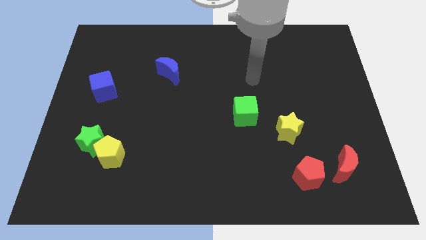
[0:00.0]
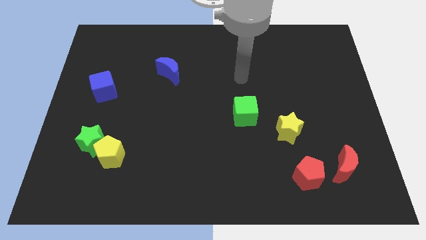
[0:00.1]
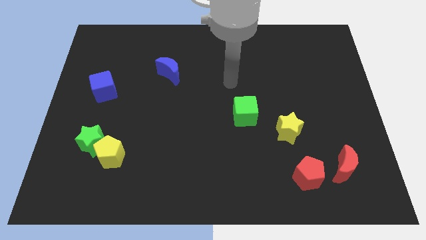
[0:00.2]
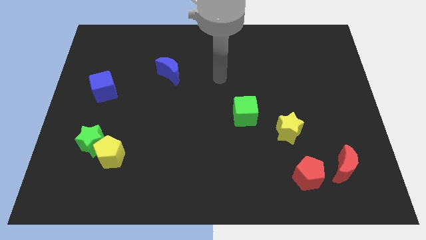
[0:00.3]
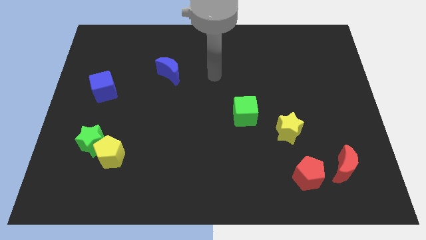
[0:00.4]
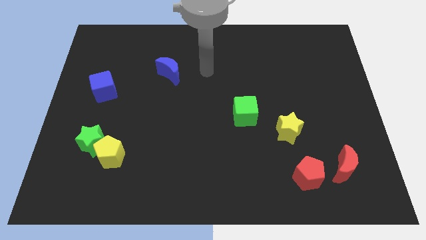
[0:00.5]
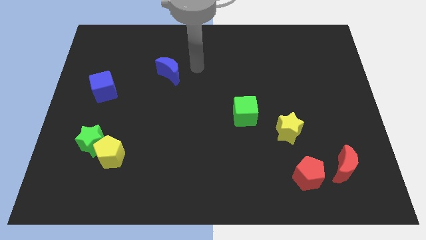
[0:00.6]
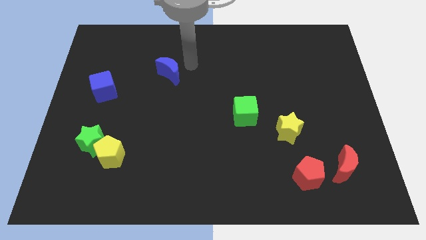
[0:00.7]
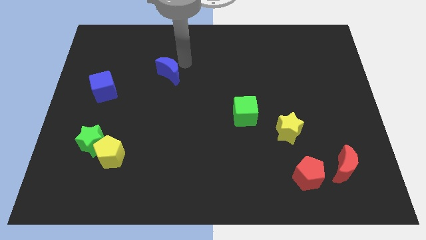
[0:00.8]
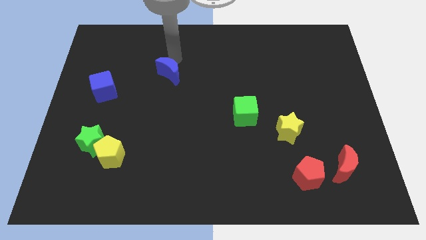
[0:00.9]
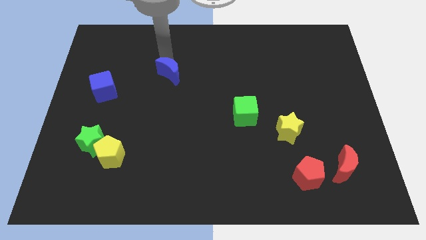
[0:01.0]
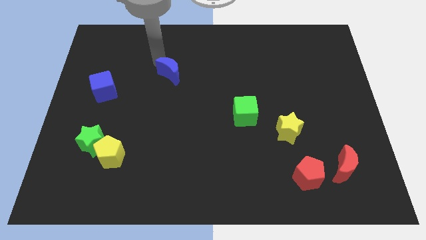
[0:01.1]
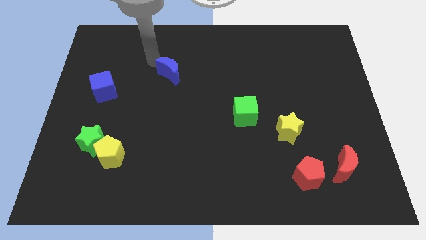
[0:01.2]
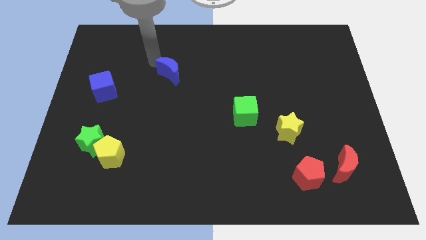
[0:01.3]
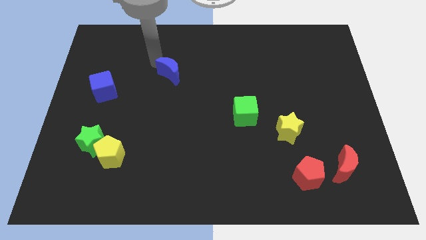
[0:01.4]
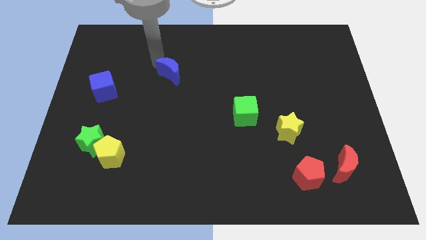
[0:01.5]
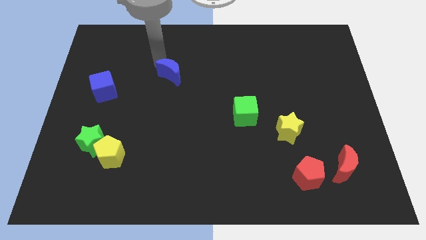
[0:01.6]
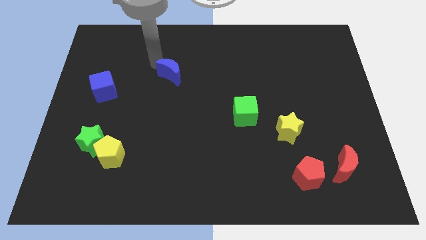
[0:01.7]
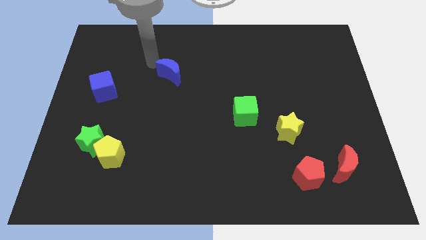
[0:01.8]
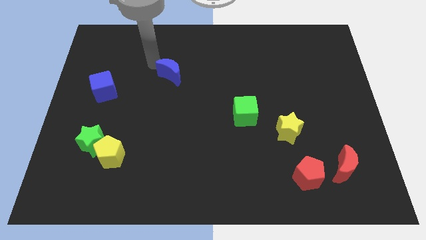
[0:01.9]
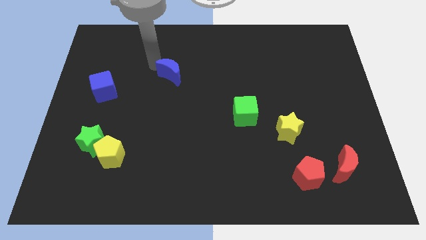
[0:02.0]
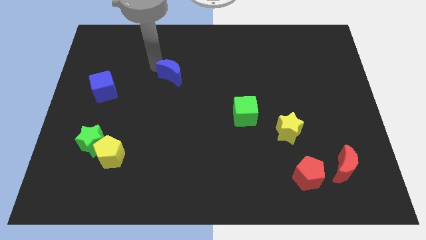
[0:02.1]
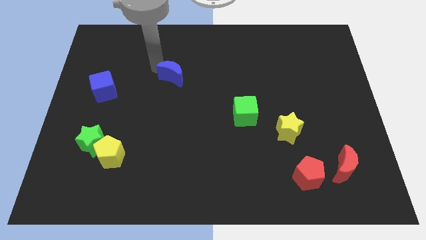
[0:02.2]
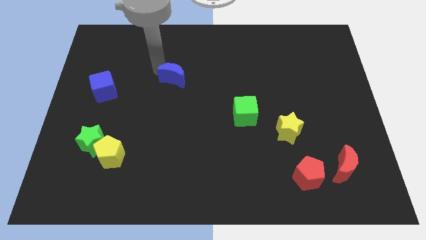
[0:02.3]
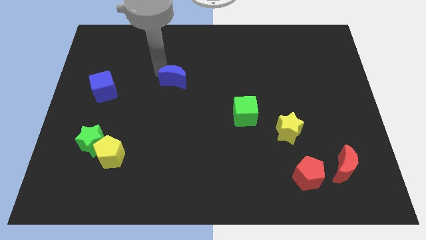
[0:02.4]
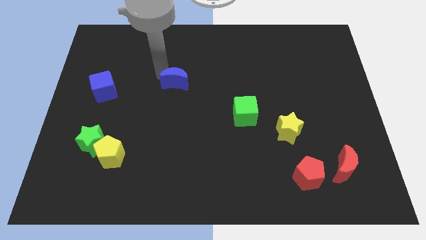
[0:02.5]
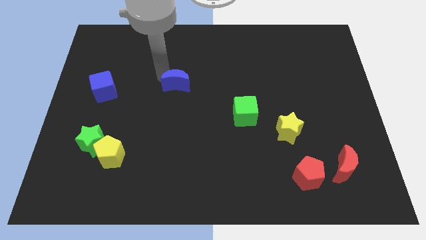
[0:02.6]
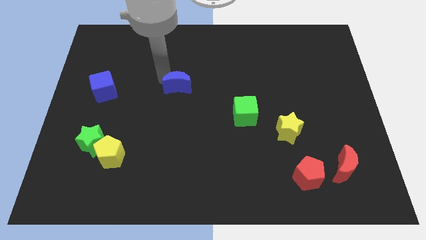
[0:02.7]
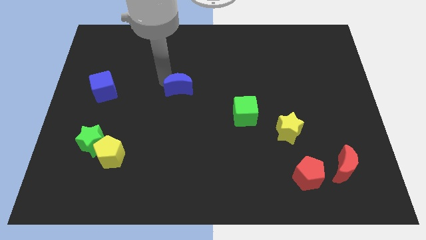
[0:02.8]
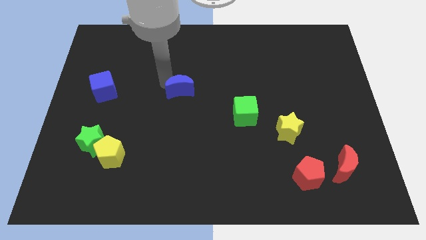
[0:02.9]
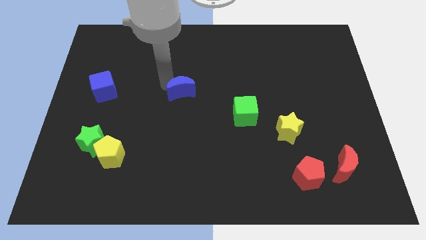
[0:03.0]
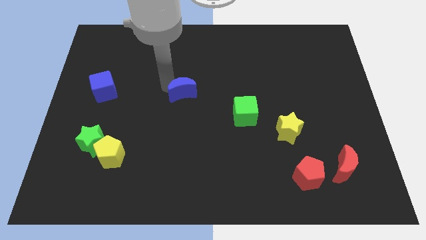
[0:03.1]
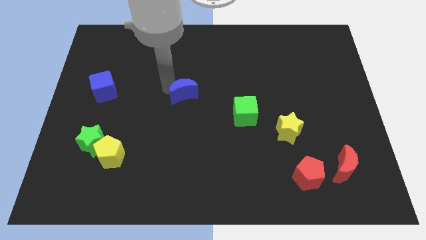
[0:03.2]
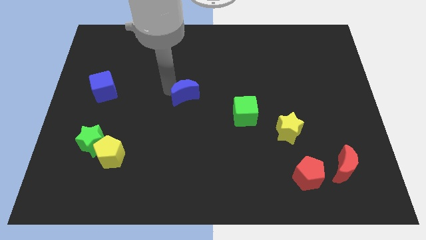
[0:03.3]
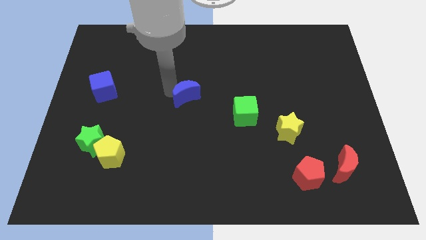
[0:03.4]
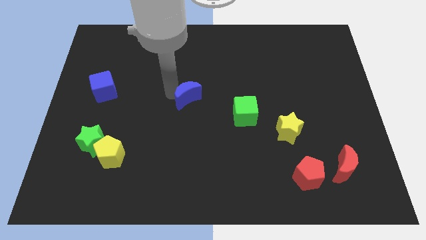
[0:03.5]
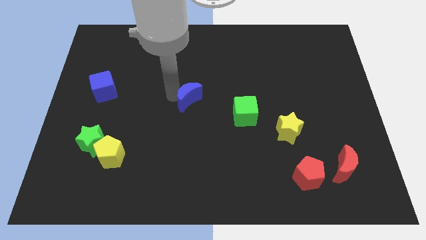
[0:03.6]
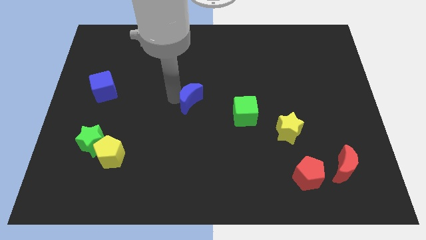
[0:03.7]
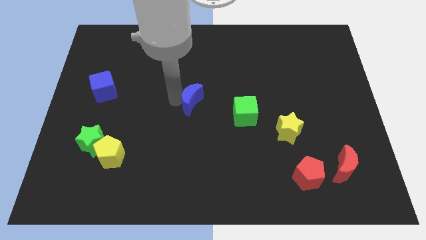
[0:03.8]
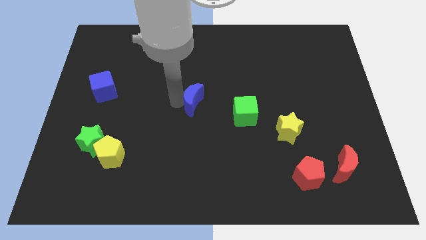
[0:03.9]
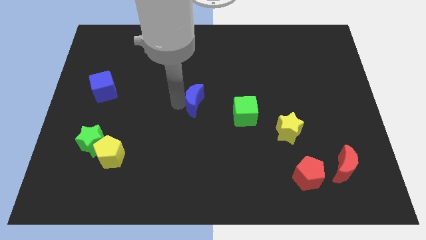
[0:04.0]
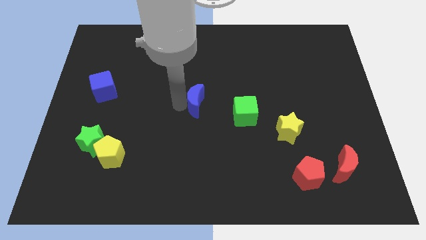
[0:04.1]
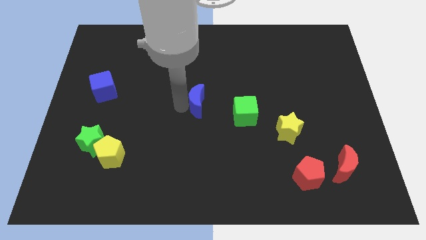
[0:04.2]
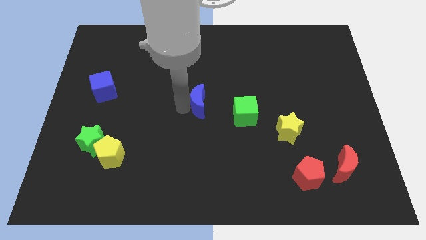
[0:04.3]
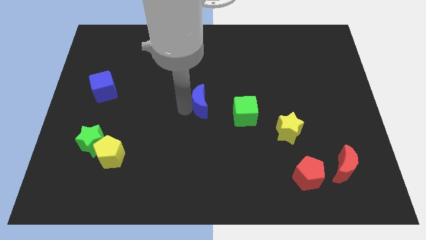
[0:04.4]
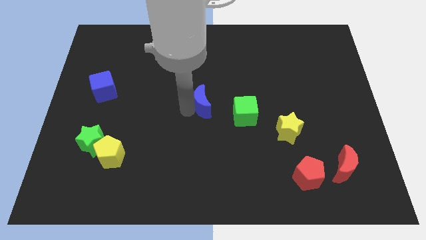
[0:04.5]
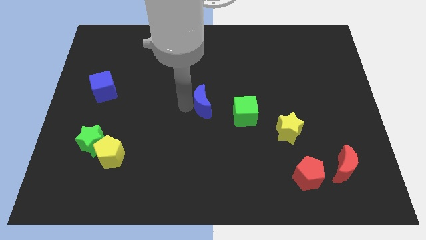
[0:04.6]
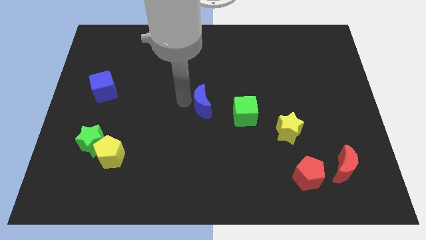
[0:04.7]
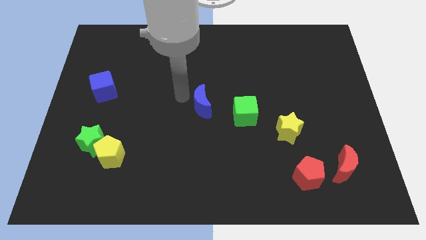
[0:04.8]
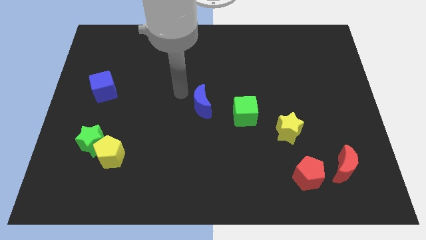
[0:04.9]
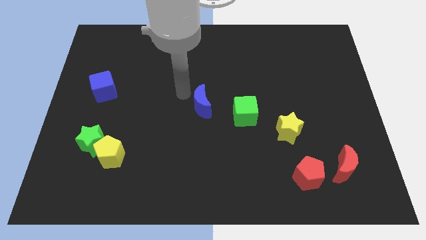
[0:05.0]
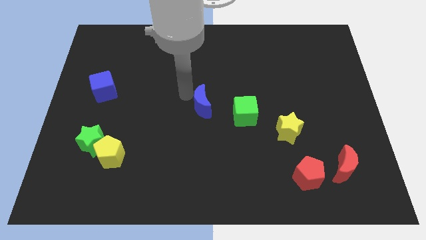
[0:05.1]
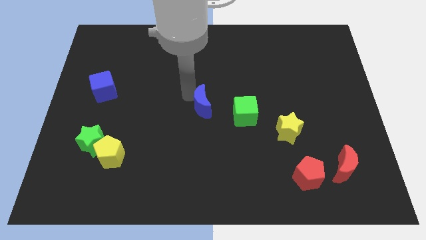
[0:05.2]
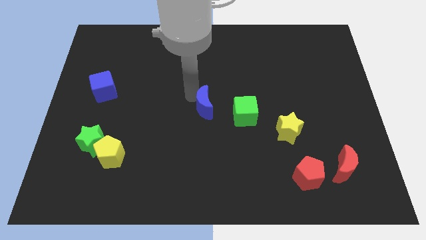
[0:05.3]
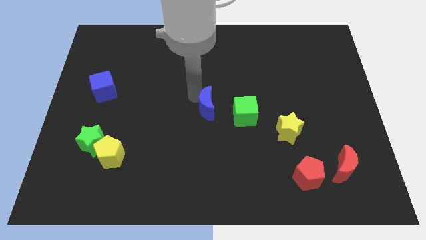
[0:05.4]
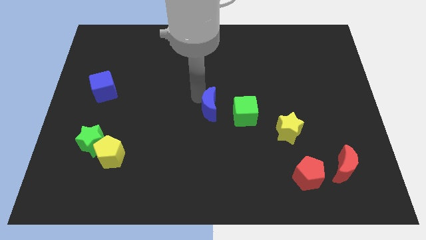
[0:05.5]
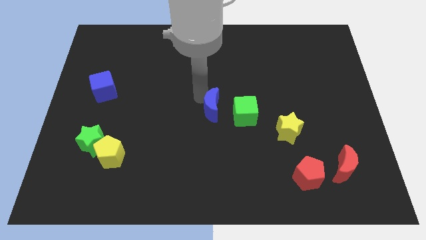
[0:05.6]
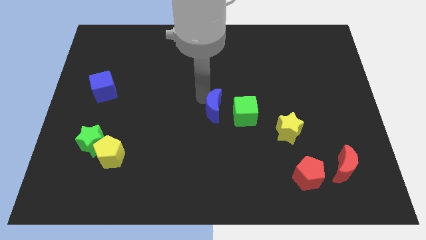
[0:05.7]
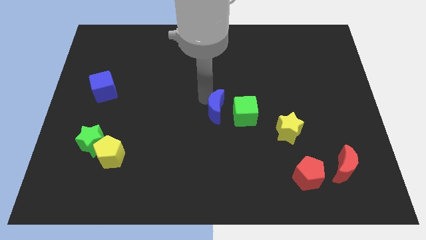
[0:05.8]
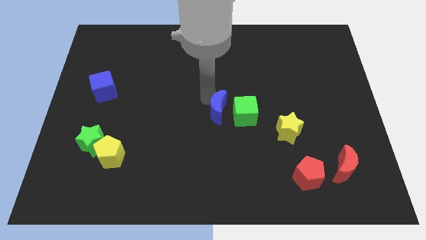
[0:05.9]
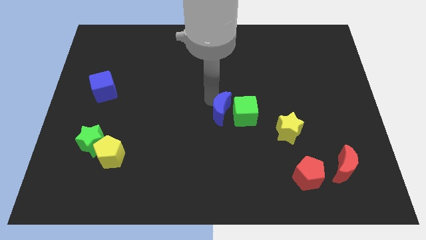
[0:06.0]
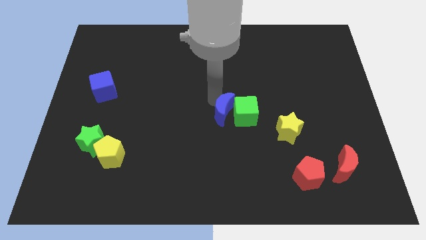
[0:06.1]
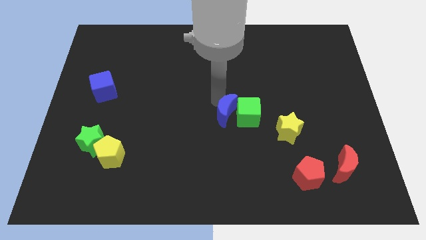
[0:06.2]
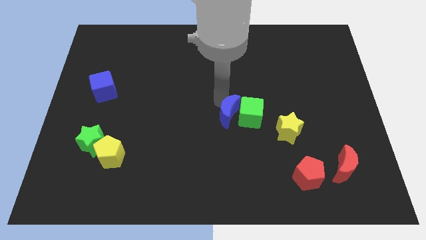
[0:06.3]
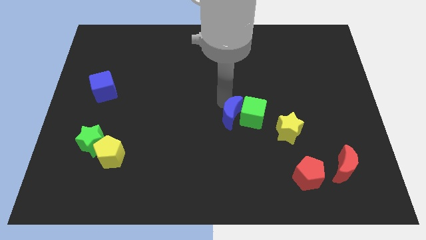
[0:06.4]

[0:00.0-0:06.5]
move the blue moon down and to the right diagonally

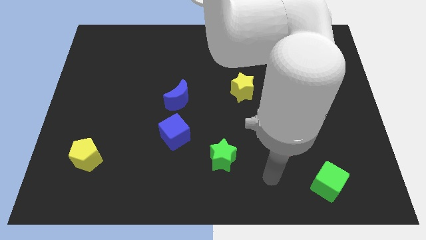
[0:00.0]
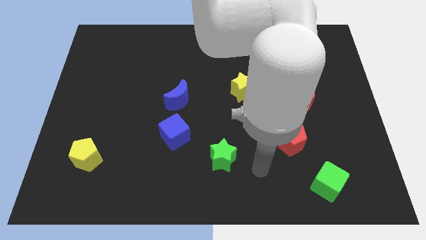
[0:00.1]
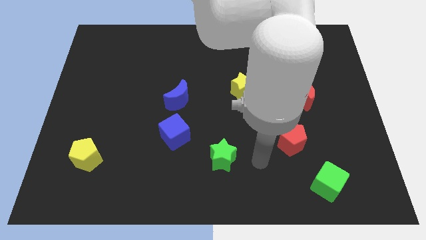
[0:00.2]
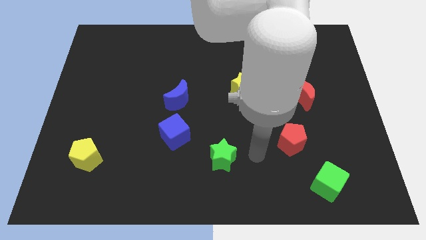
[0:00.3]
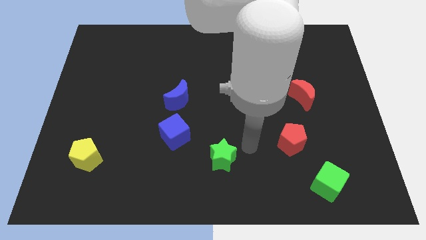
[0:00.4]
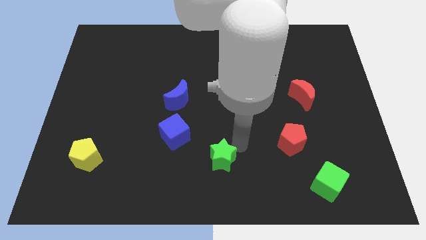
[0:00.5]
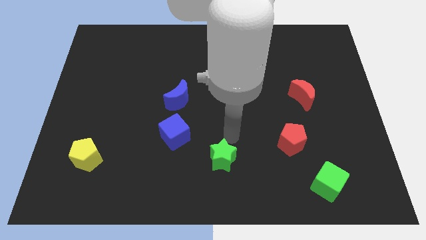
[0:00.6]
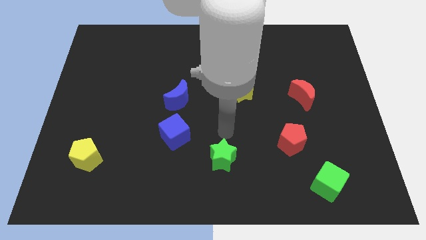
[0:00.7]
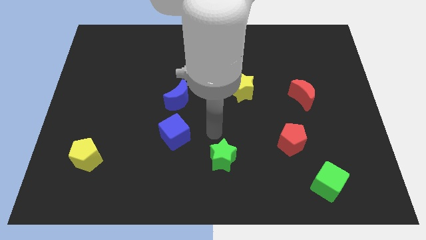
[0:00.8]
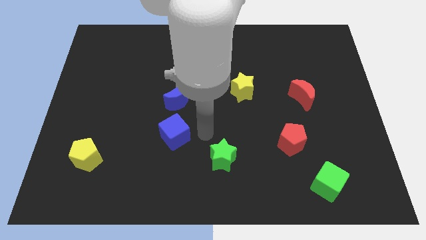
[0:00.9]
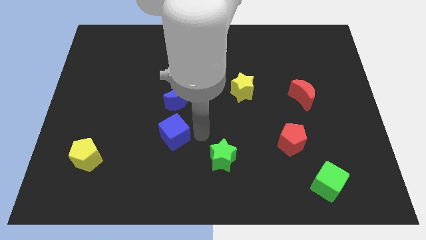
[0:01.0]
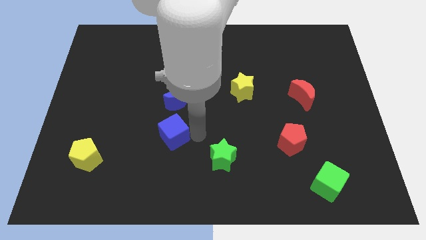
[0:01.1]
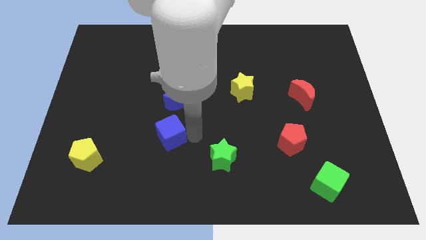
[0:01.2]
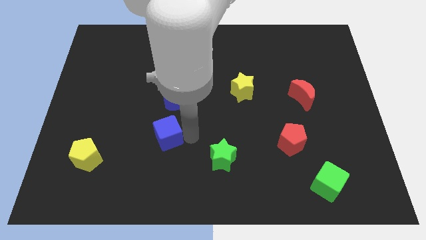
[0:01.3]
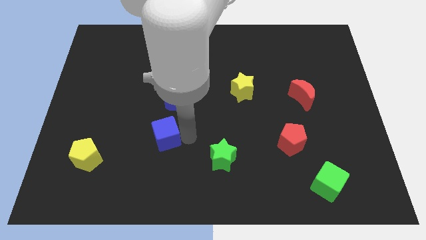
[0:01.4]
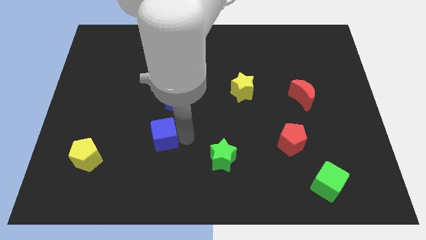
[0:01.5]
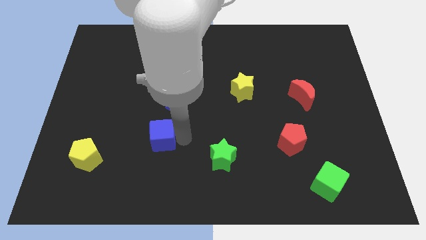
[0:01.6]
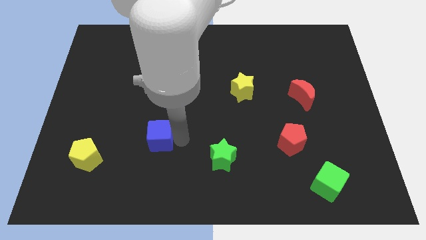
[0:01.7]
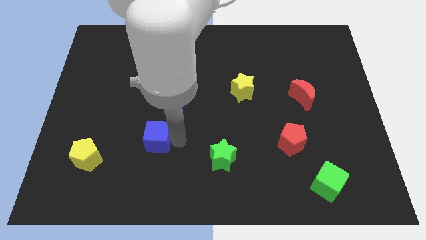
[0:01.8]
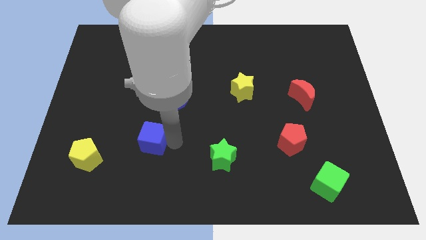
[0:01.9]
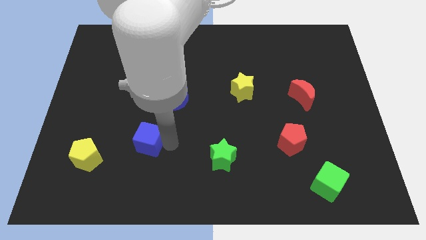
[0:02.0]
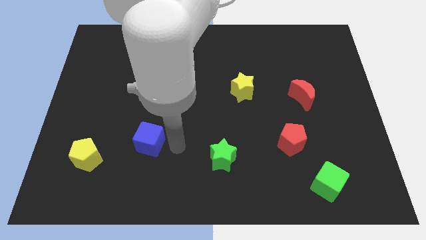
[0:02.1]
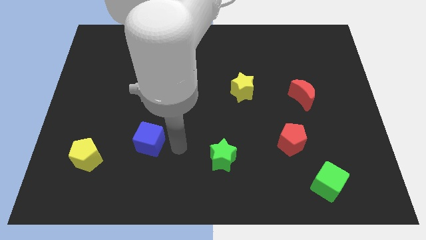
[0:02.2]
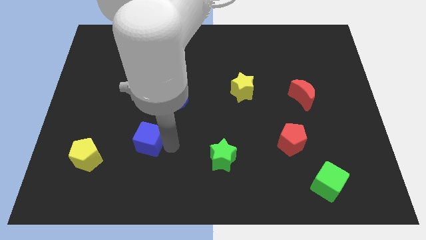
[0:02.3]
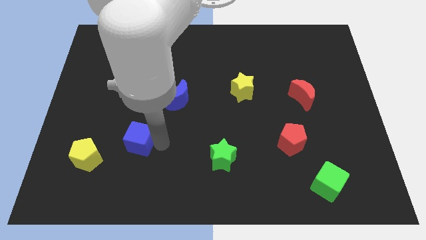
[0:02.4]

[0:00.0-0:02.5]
slide the blue cube left slightly
